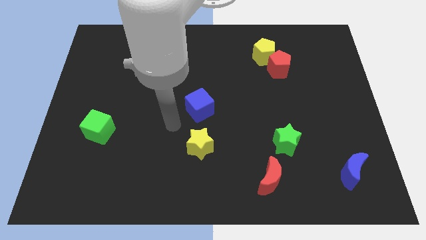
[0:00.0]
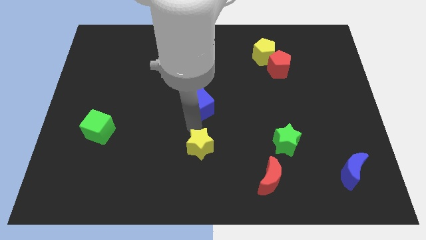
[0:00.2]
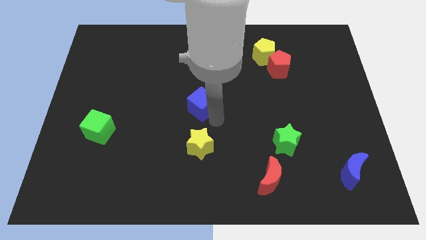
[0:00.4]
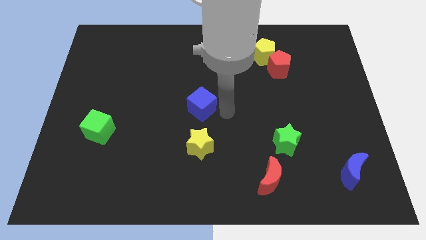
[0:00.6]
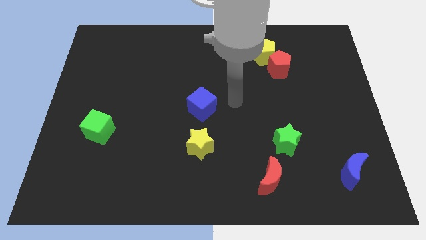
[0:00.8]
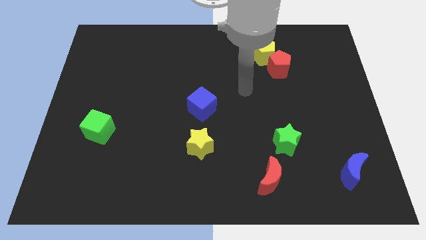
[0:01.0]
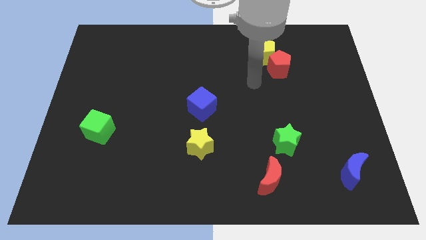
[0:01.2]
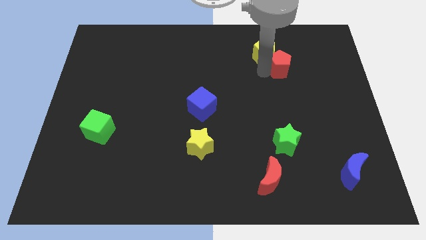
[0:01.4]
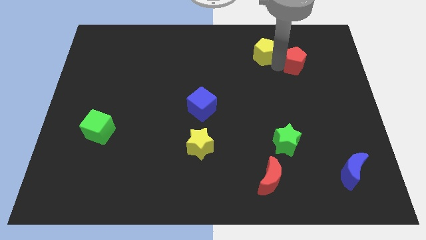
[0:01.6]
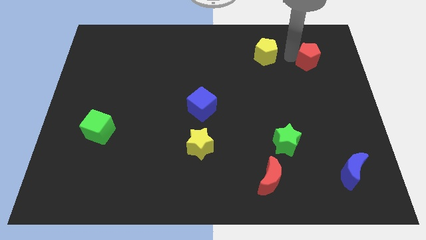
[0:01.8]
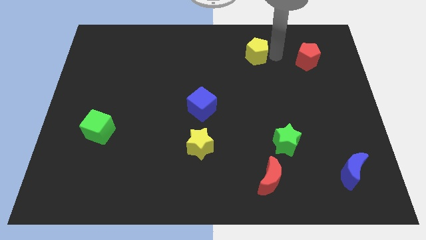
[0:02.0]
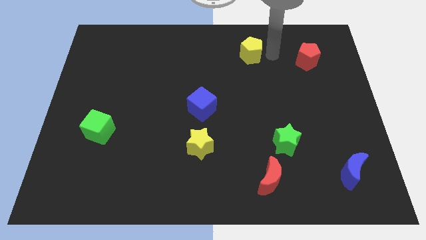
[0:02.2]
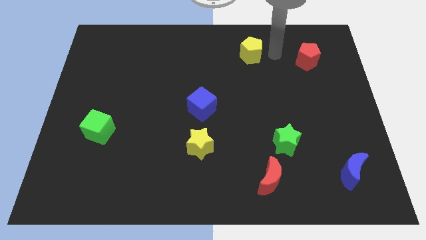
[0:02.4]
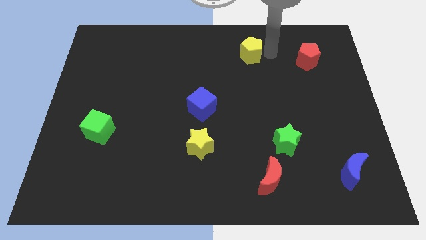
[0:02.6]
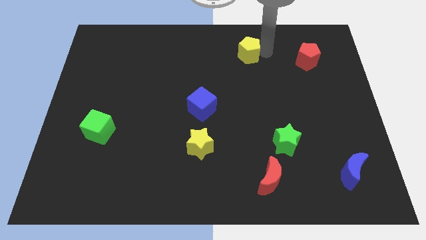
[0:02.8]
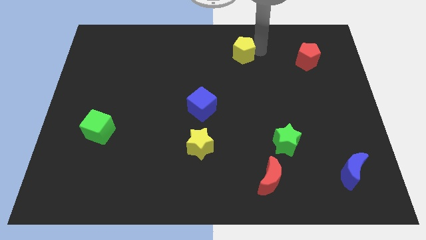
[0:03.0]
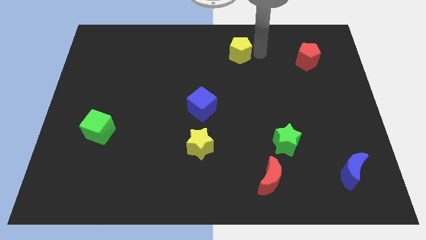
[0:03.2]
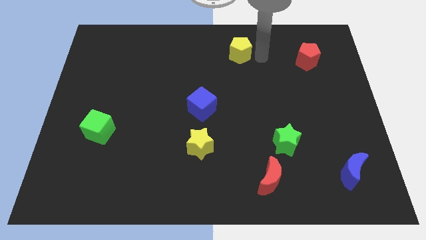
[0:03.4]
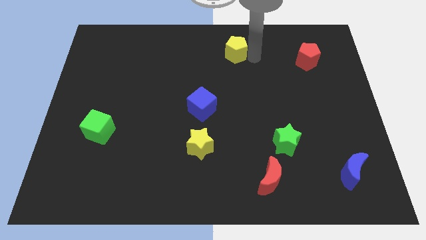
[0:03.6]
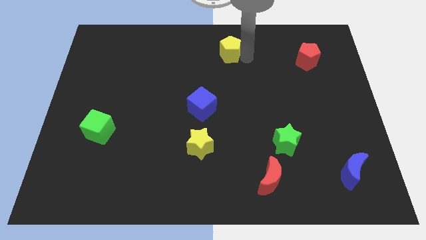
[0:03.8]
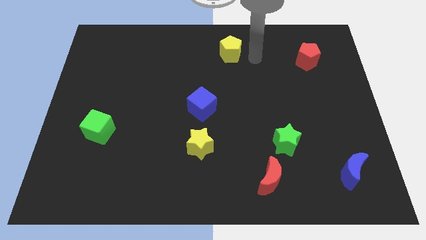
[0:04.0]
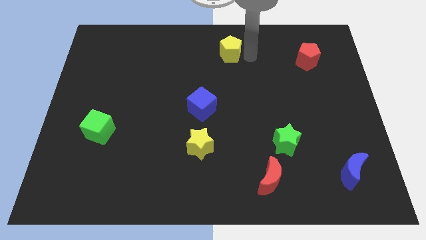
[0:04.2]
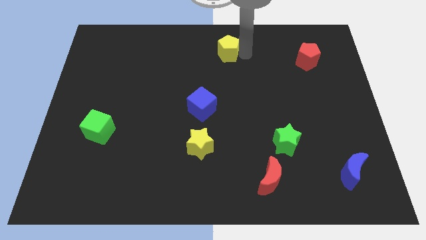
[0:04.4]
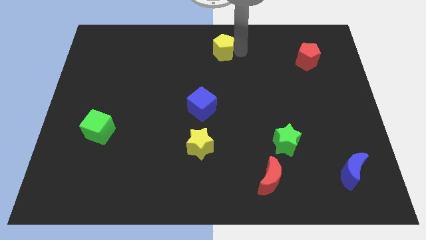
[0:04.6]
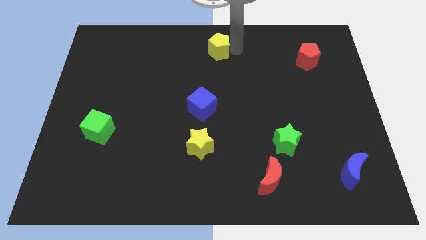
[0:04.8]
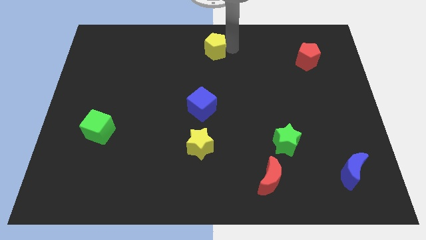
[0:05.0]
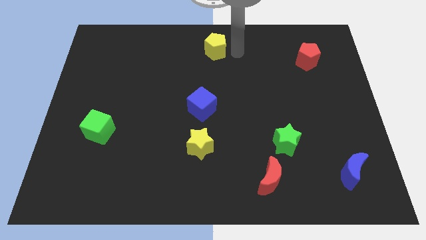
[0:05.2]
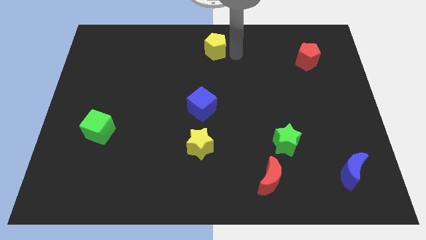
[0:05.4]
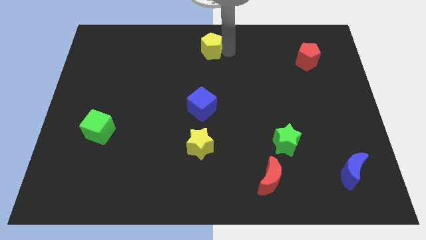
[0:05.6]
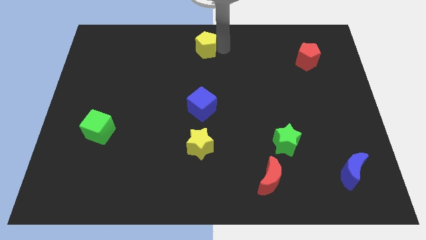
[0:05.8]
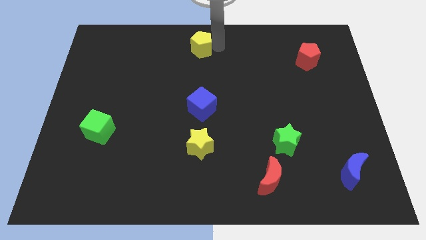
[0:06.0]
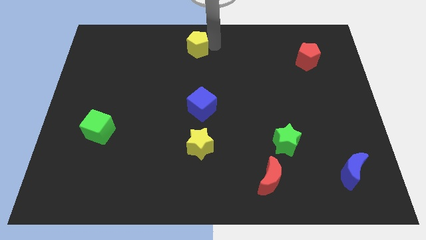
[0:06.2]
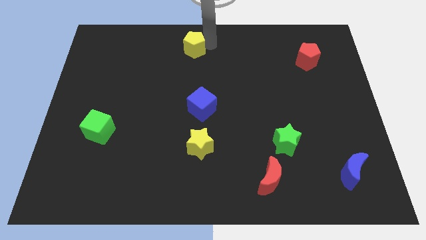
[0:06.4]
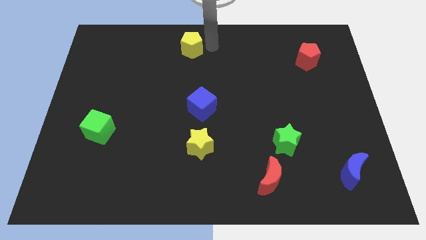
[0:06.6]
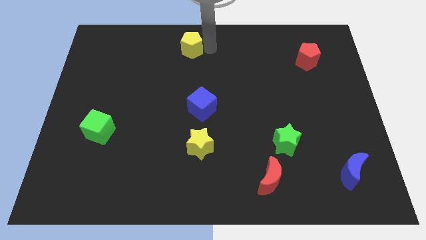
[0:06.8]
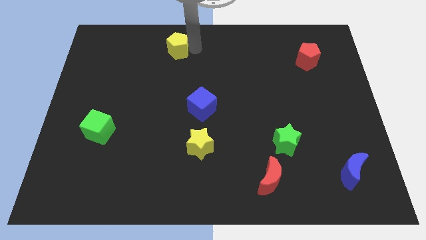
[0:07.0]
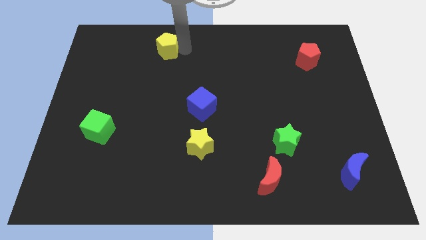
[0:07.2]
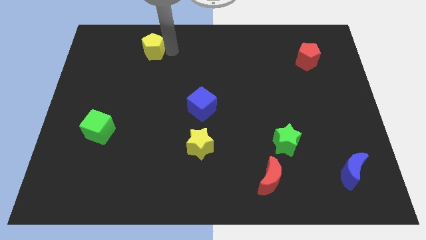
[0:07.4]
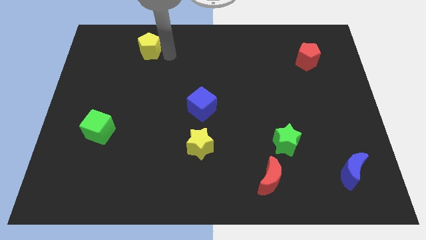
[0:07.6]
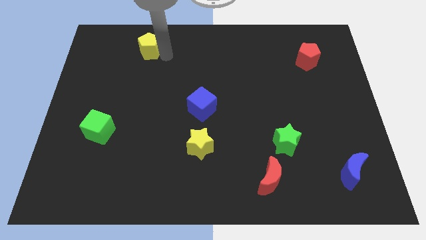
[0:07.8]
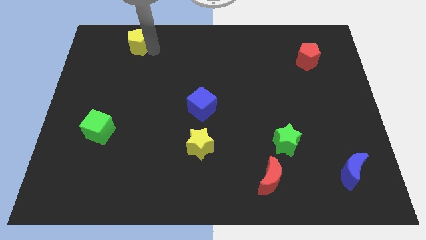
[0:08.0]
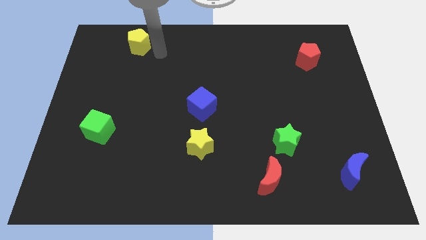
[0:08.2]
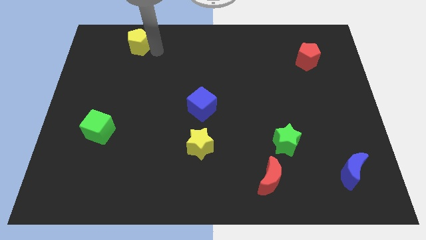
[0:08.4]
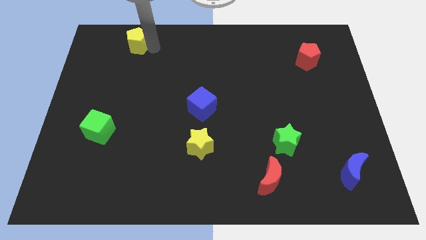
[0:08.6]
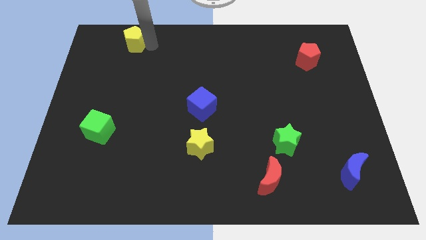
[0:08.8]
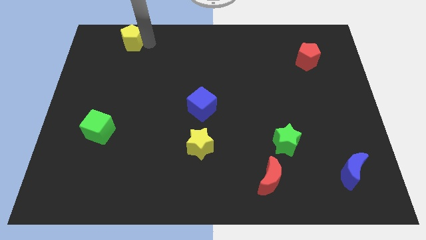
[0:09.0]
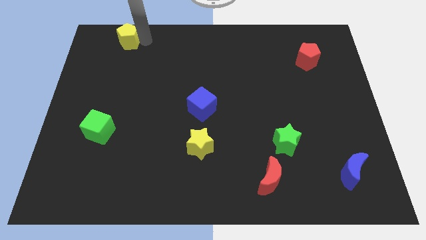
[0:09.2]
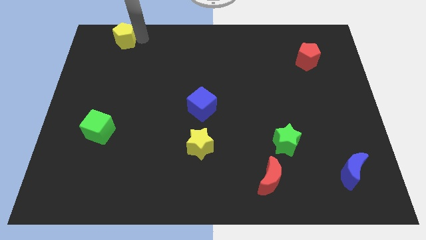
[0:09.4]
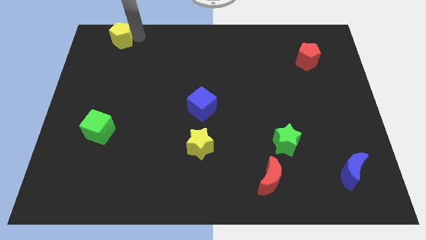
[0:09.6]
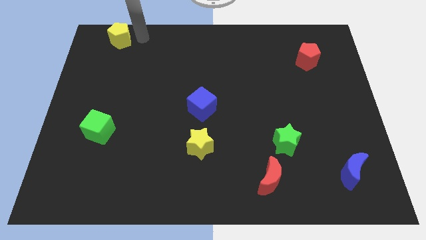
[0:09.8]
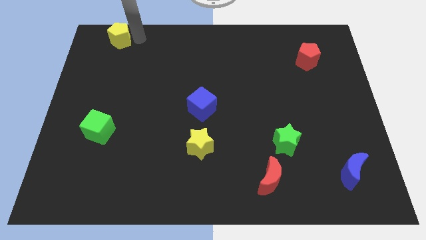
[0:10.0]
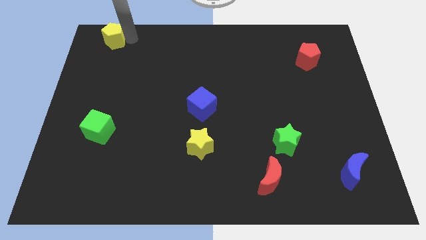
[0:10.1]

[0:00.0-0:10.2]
slide the yellow pentagon to the upper left corner

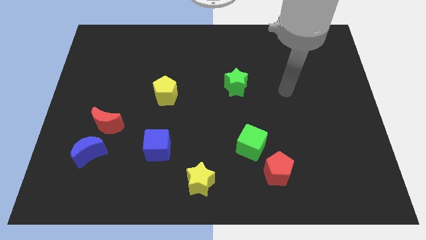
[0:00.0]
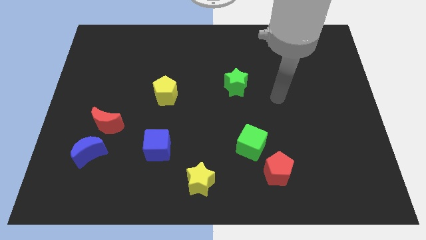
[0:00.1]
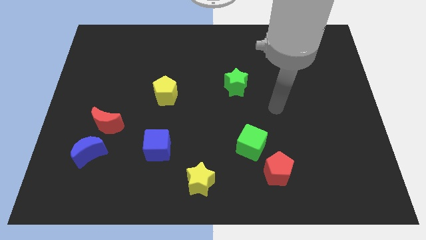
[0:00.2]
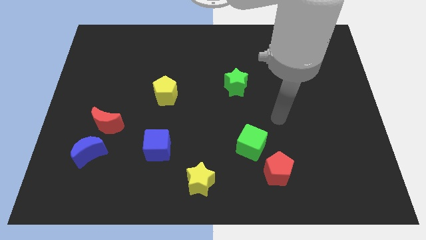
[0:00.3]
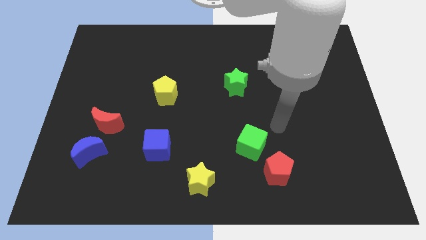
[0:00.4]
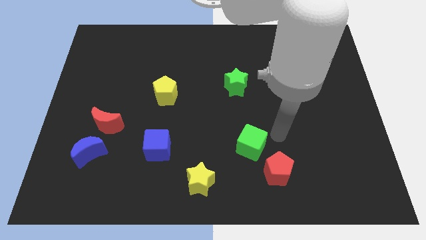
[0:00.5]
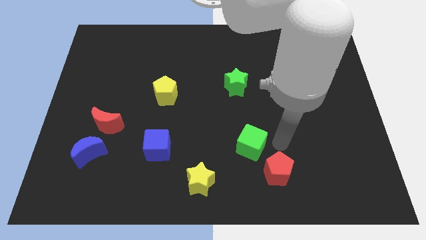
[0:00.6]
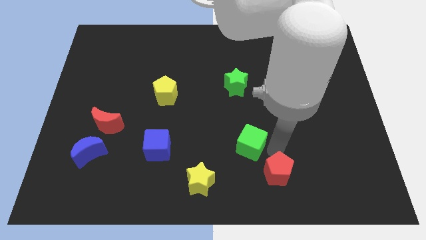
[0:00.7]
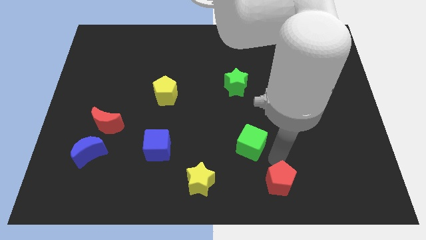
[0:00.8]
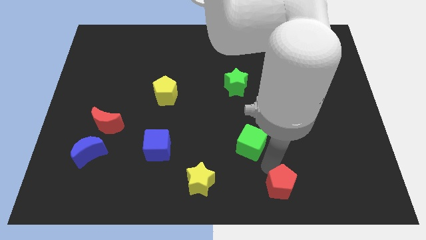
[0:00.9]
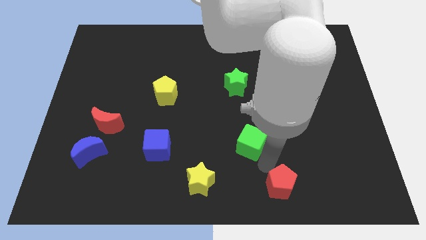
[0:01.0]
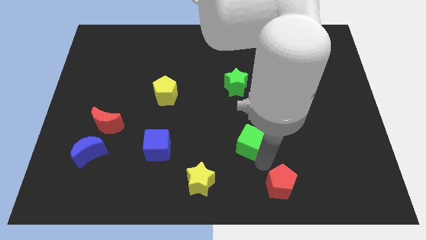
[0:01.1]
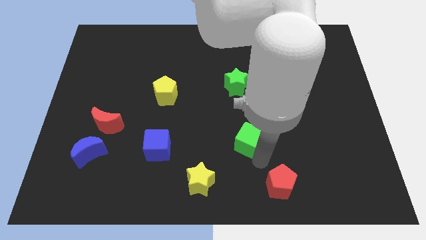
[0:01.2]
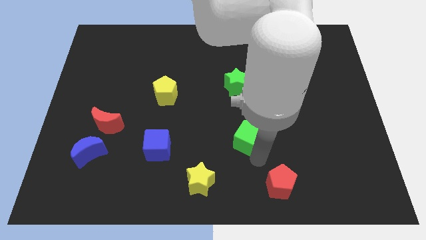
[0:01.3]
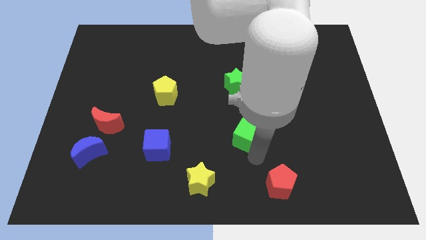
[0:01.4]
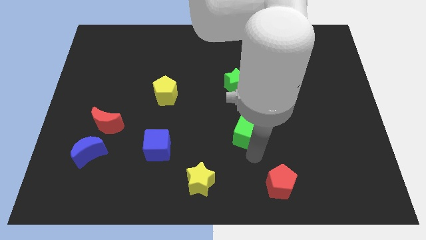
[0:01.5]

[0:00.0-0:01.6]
push the green cube to the center of the board

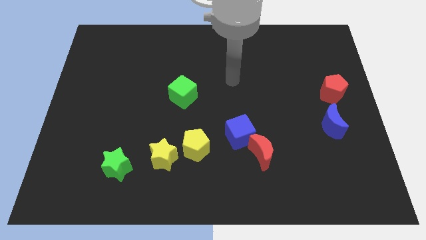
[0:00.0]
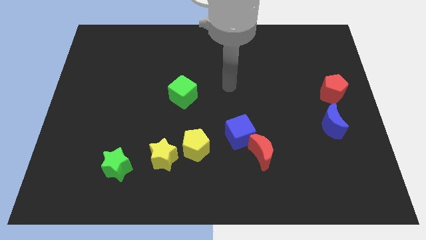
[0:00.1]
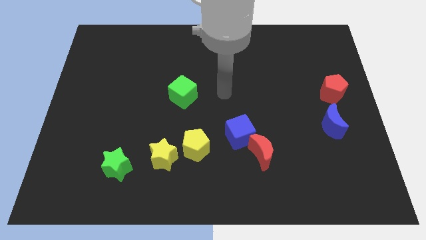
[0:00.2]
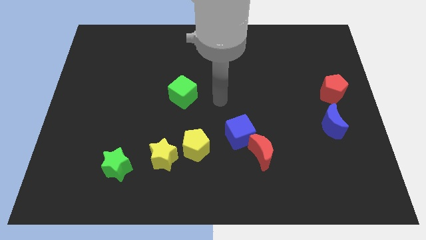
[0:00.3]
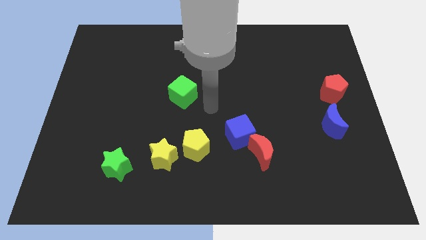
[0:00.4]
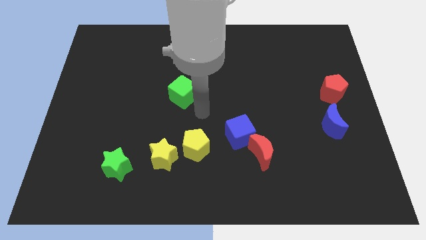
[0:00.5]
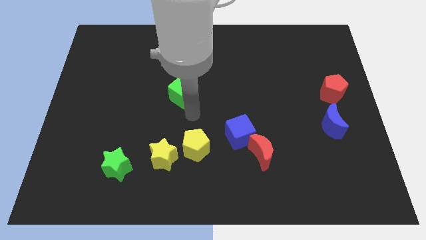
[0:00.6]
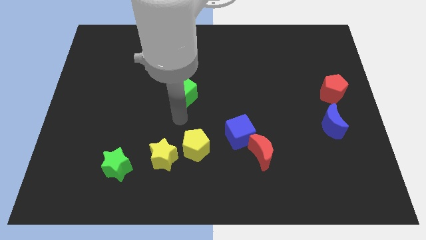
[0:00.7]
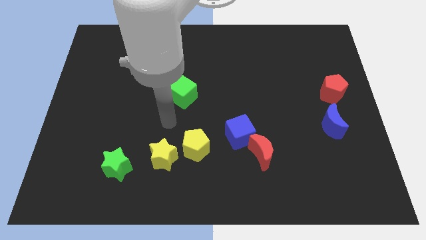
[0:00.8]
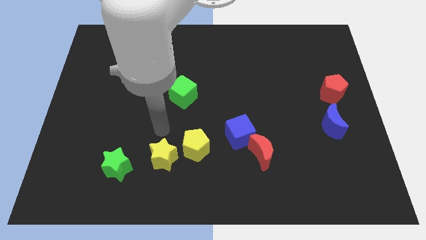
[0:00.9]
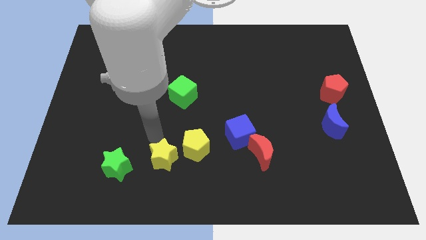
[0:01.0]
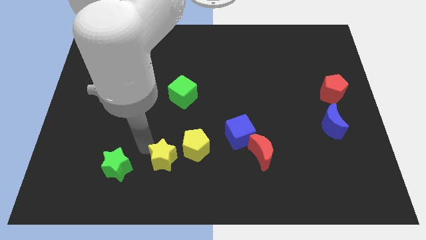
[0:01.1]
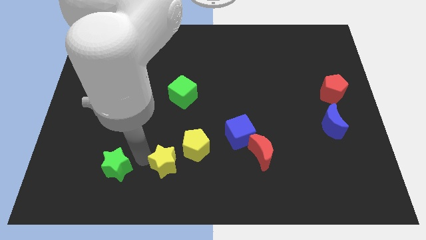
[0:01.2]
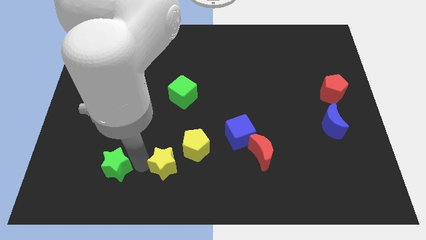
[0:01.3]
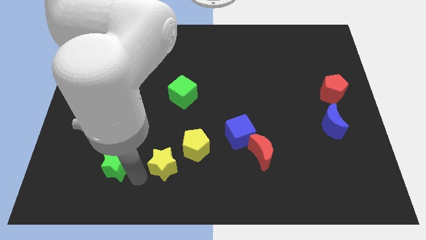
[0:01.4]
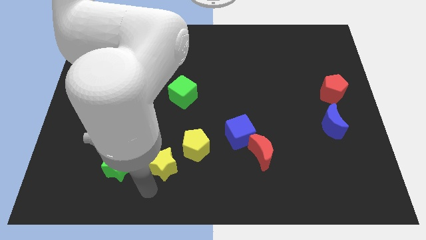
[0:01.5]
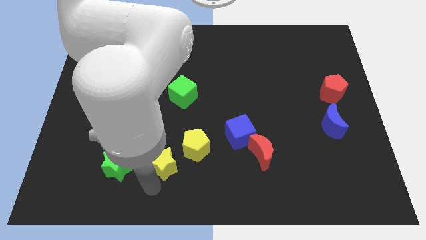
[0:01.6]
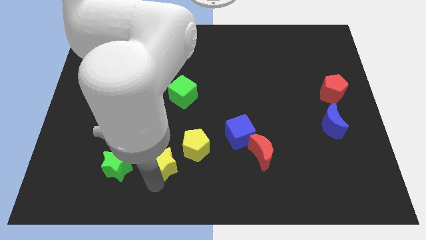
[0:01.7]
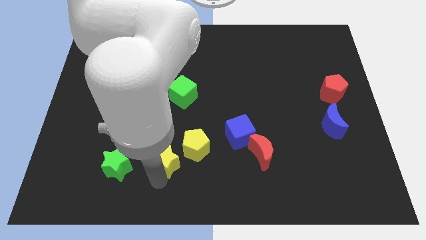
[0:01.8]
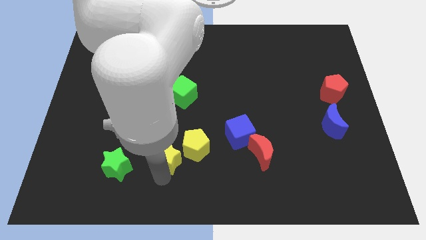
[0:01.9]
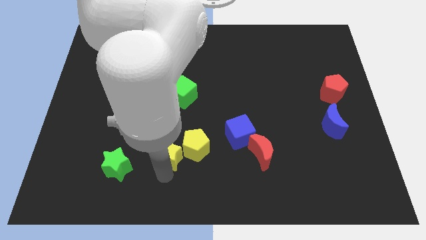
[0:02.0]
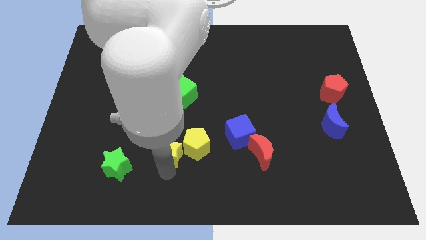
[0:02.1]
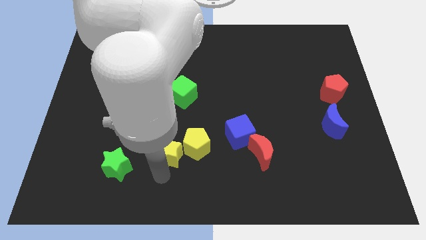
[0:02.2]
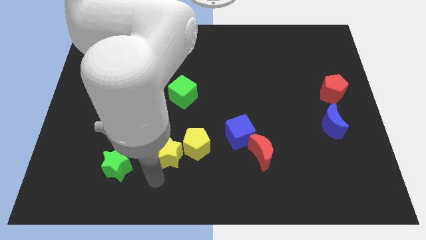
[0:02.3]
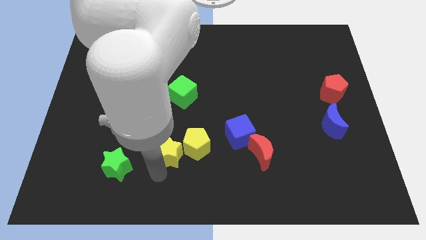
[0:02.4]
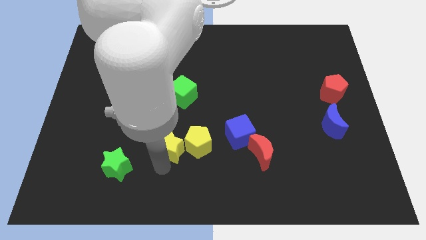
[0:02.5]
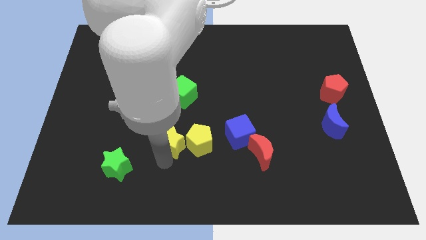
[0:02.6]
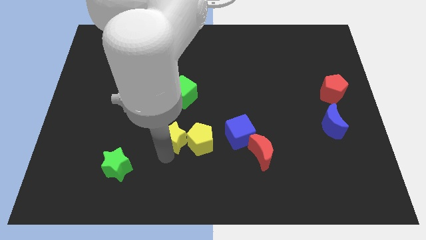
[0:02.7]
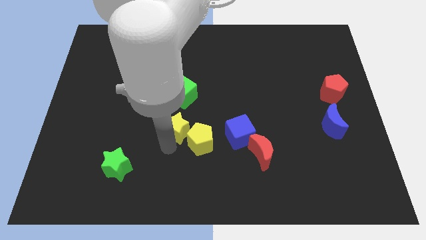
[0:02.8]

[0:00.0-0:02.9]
push the yellow star to the middle
